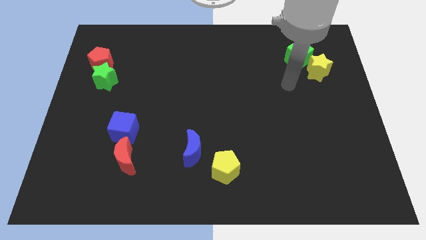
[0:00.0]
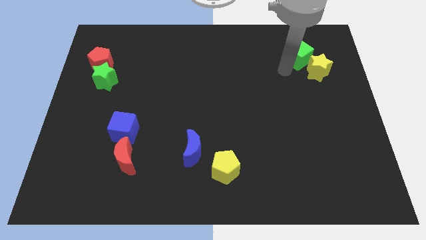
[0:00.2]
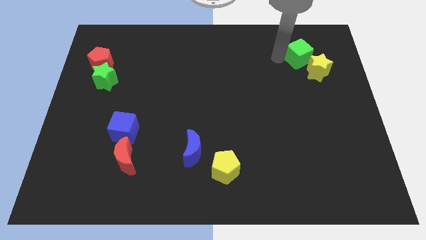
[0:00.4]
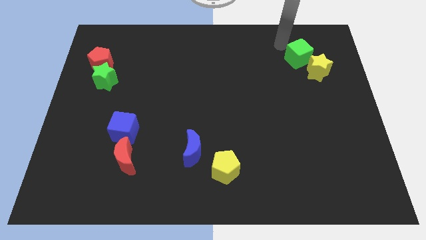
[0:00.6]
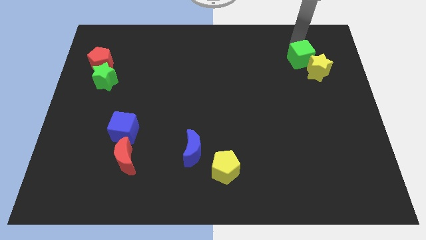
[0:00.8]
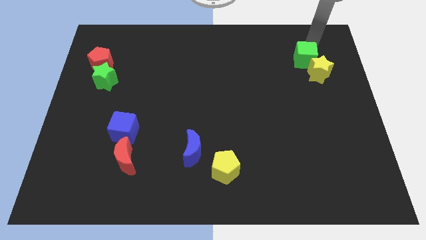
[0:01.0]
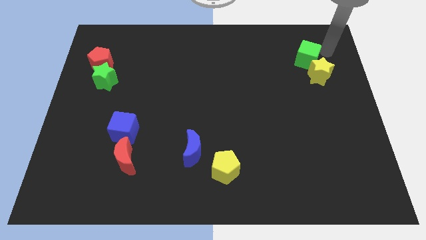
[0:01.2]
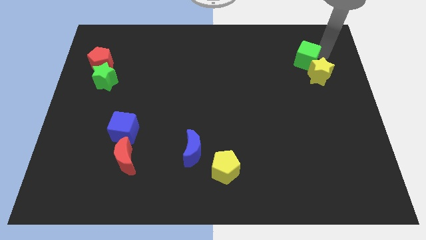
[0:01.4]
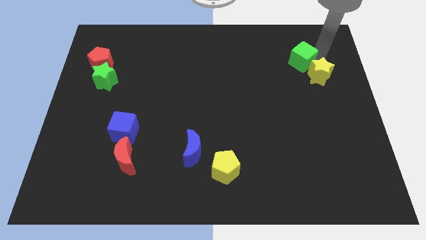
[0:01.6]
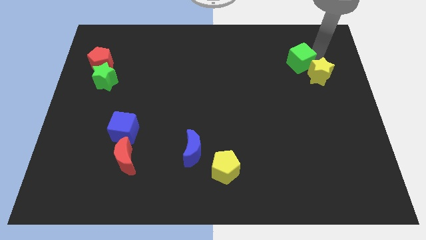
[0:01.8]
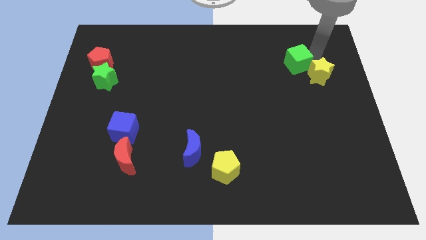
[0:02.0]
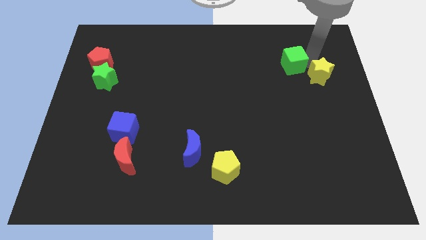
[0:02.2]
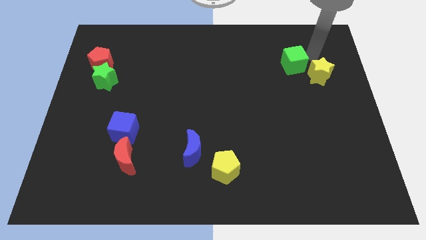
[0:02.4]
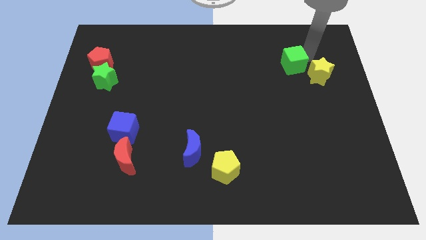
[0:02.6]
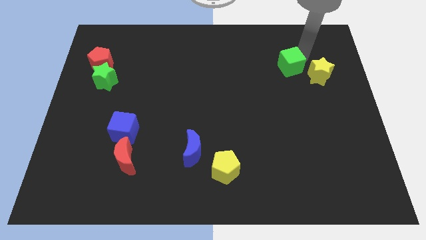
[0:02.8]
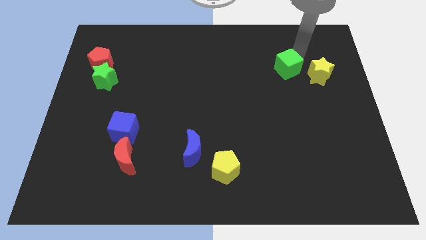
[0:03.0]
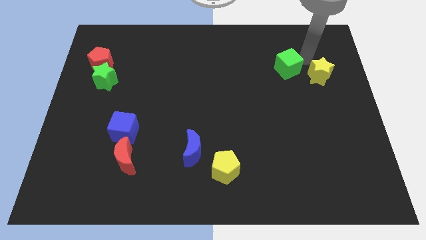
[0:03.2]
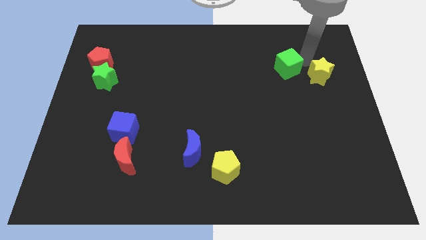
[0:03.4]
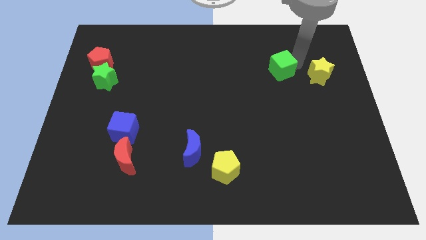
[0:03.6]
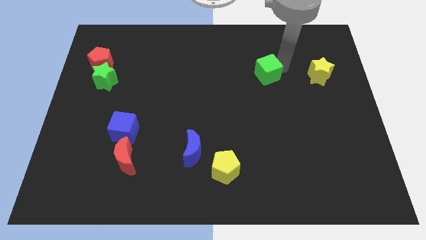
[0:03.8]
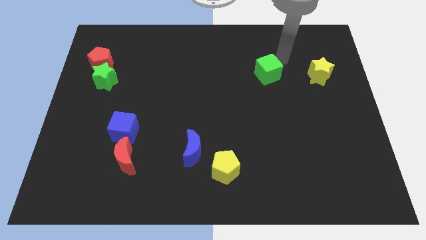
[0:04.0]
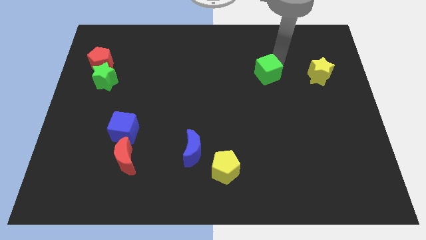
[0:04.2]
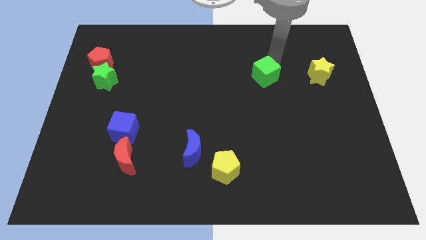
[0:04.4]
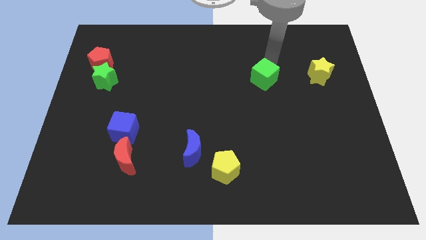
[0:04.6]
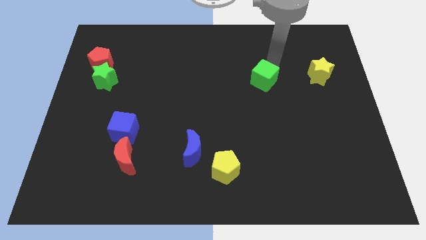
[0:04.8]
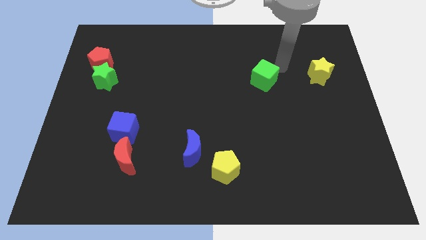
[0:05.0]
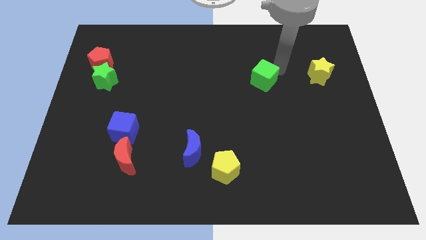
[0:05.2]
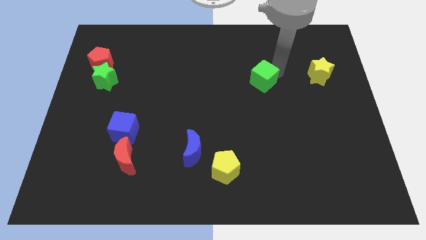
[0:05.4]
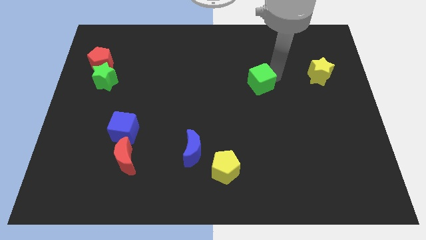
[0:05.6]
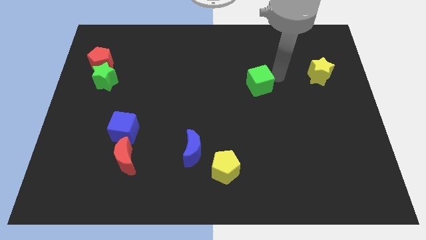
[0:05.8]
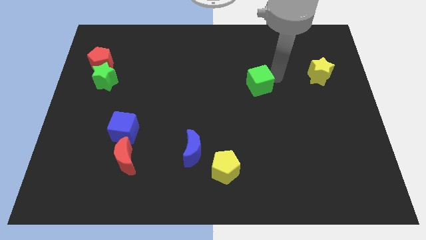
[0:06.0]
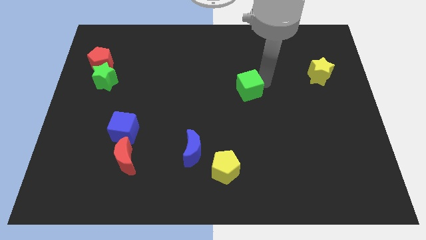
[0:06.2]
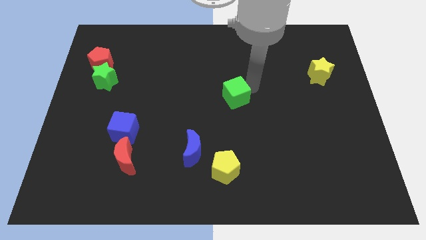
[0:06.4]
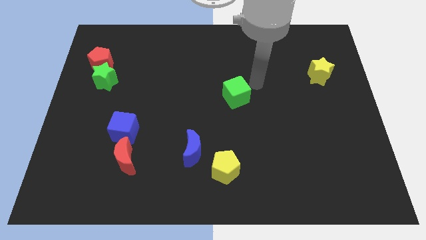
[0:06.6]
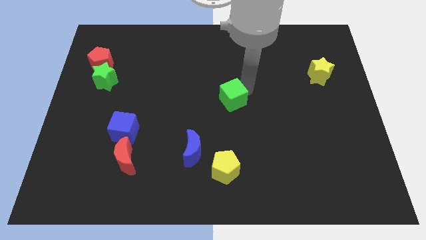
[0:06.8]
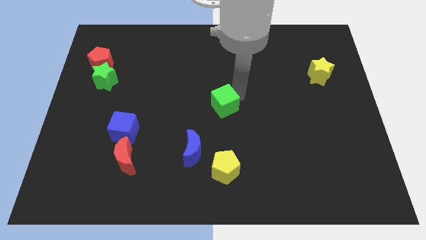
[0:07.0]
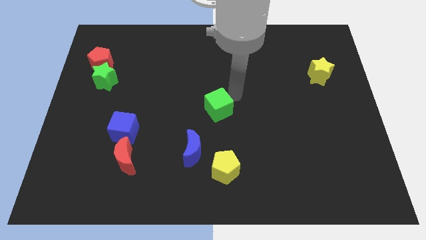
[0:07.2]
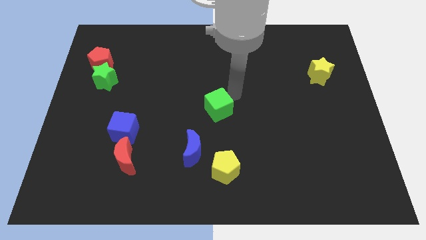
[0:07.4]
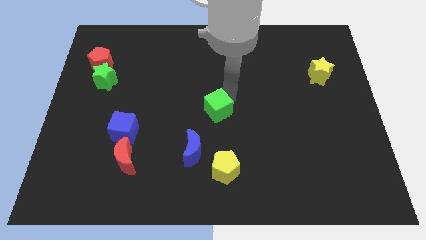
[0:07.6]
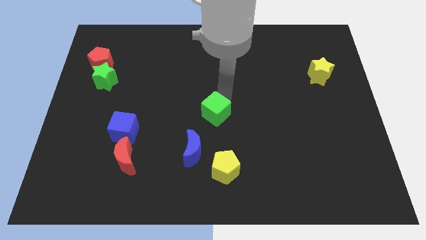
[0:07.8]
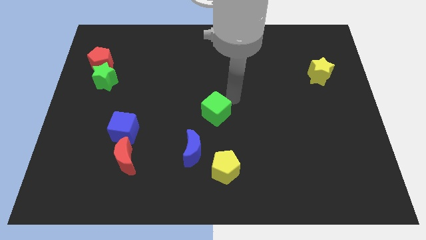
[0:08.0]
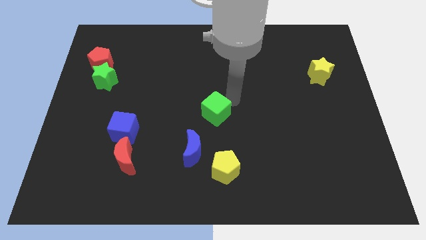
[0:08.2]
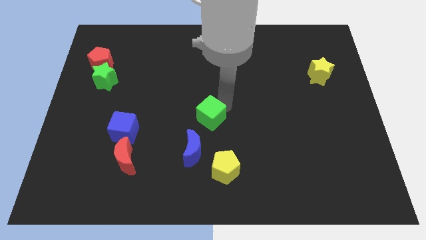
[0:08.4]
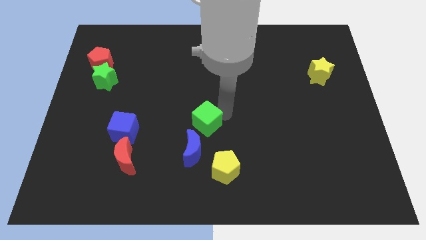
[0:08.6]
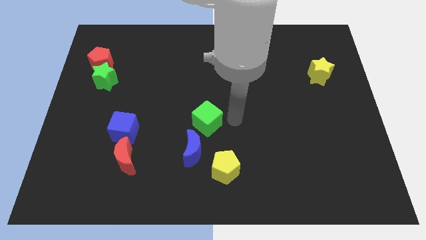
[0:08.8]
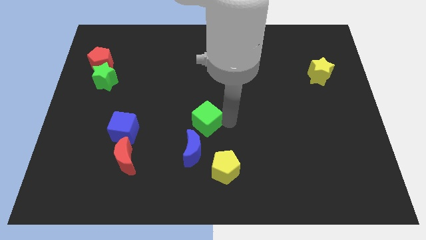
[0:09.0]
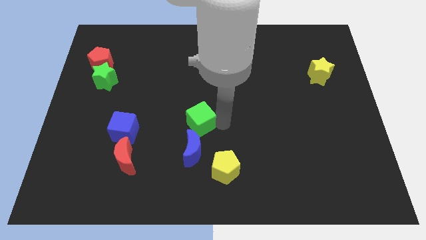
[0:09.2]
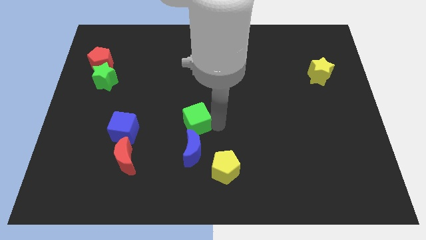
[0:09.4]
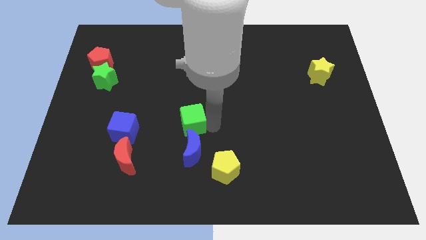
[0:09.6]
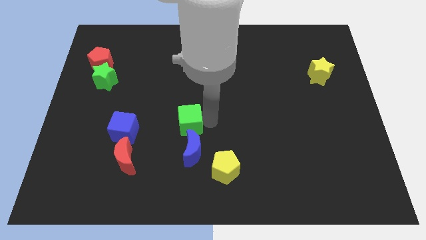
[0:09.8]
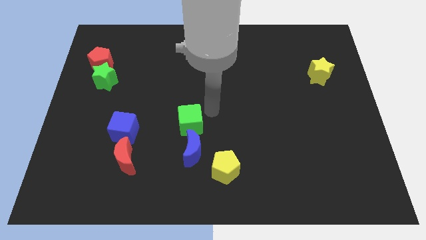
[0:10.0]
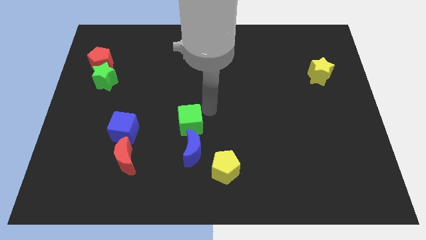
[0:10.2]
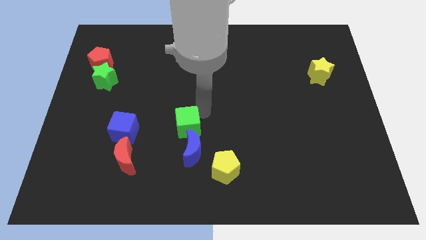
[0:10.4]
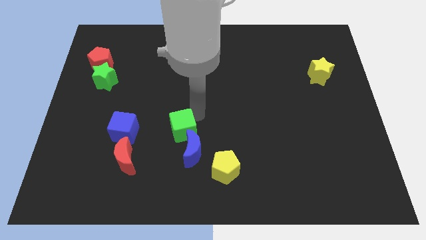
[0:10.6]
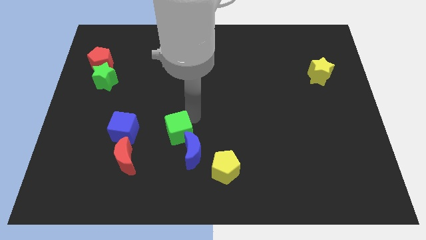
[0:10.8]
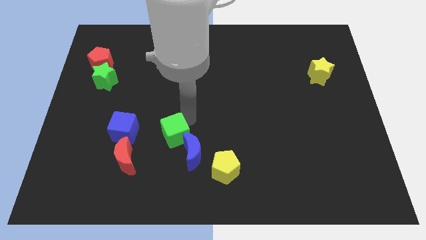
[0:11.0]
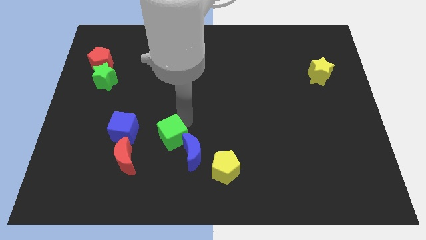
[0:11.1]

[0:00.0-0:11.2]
push the green cube left of the blue moon

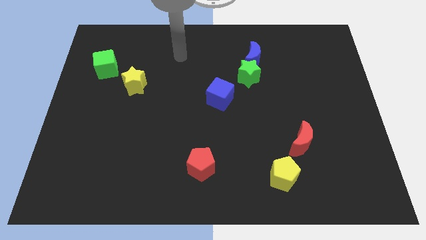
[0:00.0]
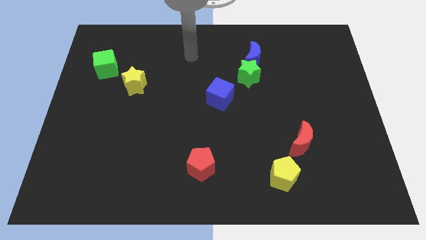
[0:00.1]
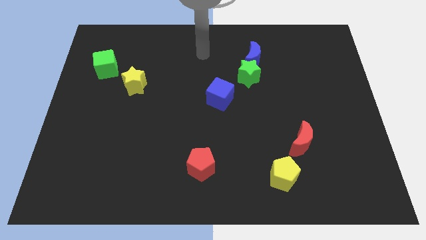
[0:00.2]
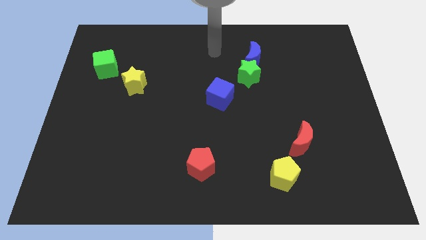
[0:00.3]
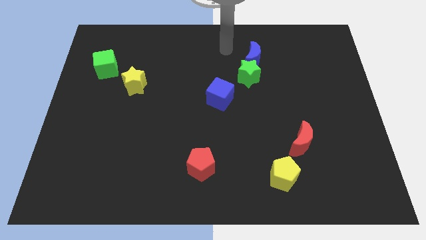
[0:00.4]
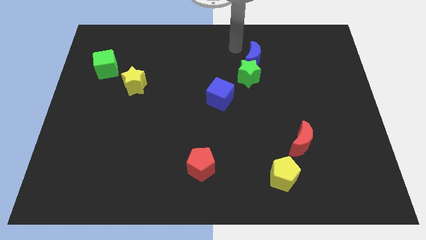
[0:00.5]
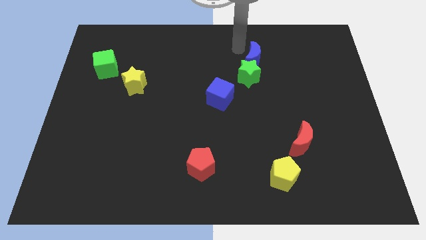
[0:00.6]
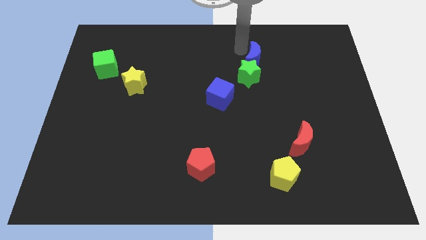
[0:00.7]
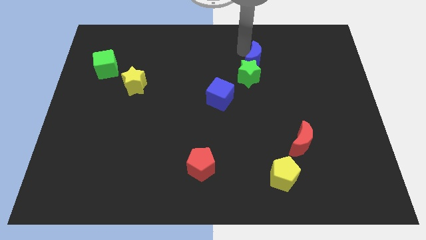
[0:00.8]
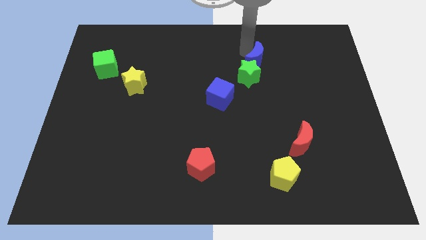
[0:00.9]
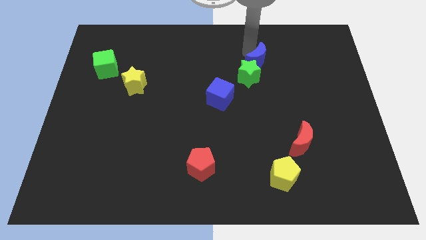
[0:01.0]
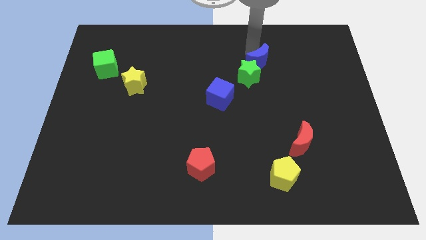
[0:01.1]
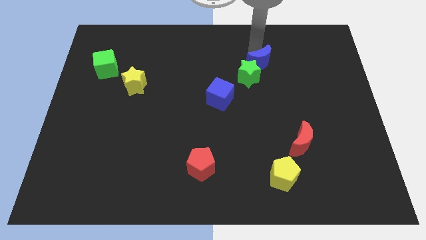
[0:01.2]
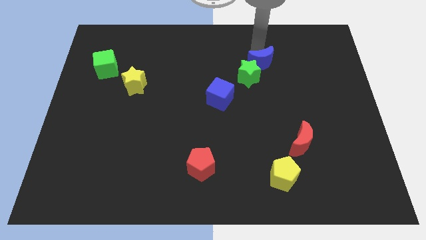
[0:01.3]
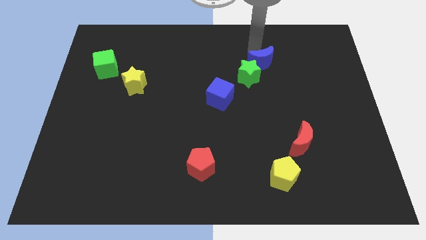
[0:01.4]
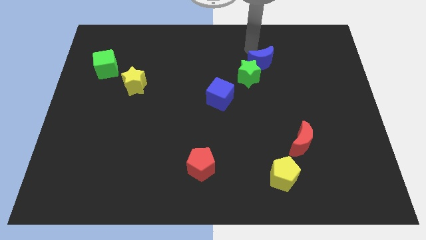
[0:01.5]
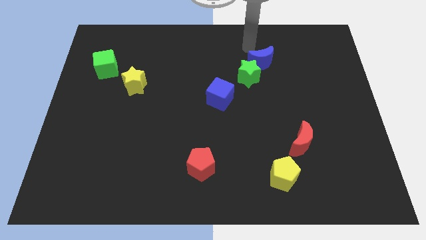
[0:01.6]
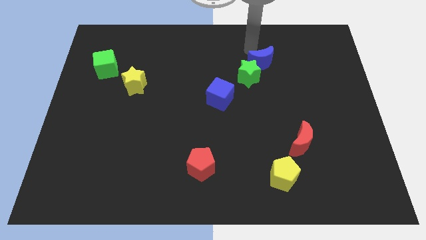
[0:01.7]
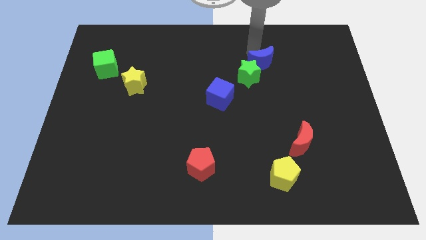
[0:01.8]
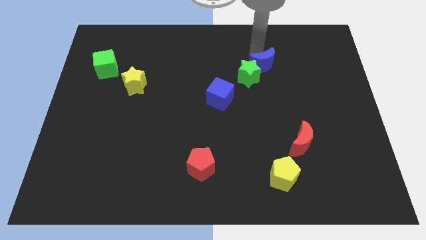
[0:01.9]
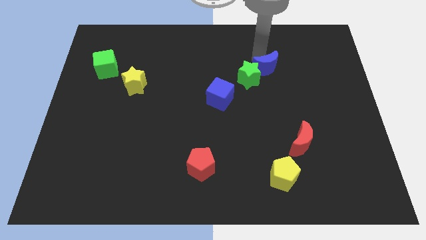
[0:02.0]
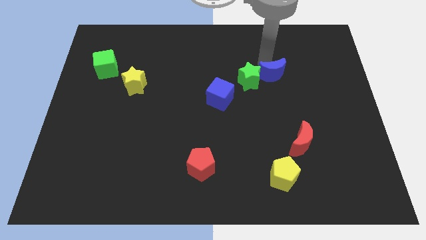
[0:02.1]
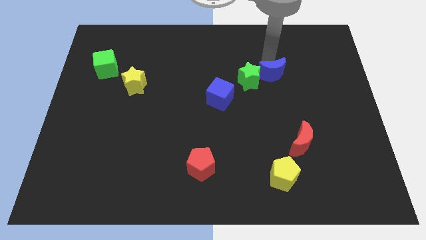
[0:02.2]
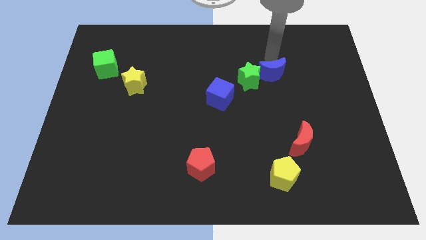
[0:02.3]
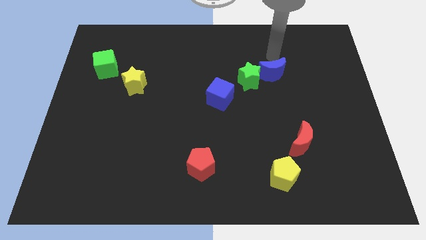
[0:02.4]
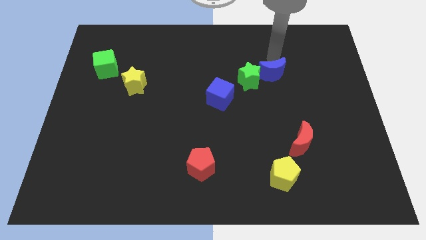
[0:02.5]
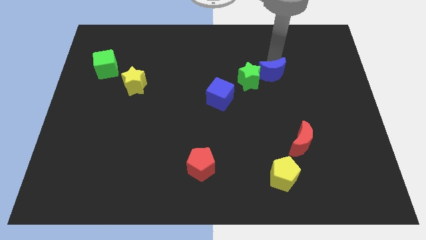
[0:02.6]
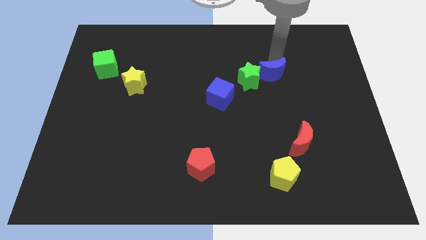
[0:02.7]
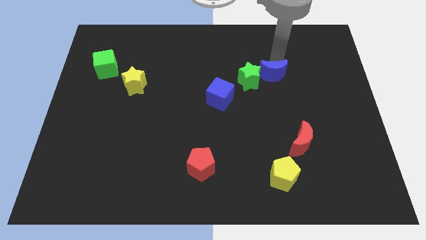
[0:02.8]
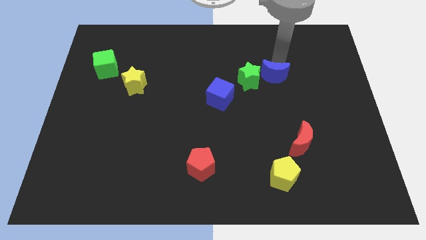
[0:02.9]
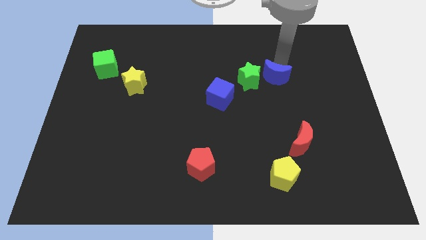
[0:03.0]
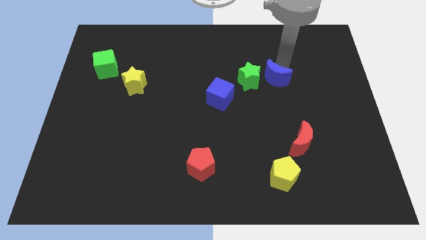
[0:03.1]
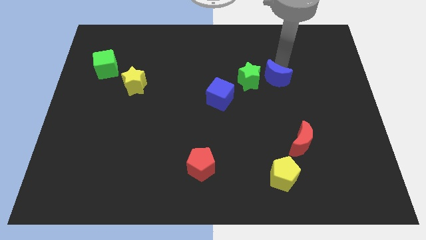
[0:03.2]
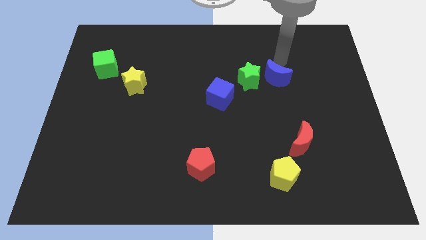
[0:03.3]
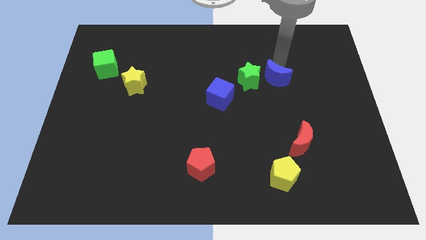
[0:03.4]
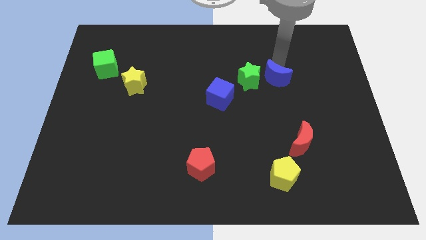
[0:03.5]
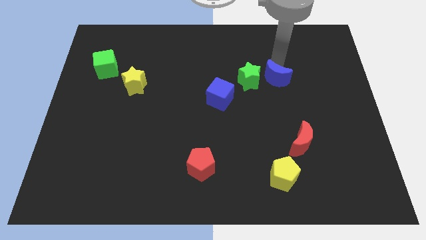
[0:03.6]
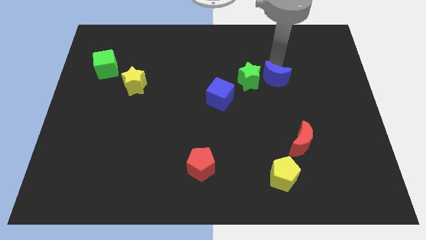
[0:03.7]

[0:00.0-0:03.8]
move the blue moon diagonally down and to the right of the green star
